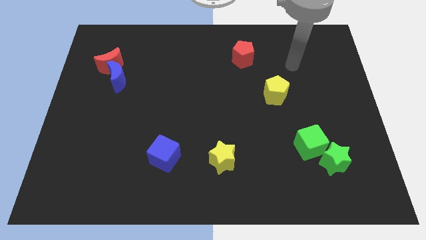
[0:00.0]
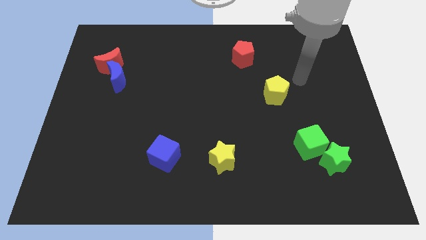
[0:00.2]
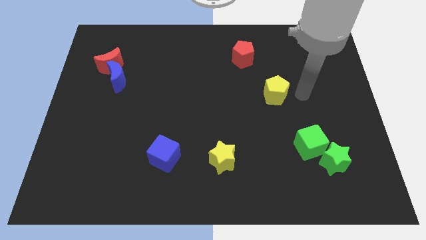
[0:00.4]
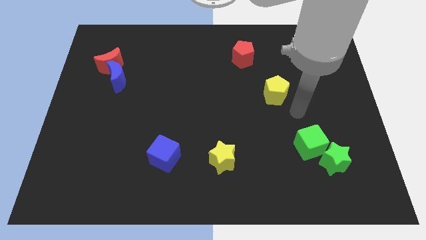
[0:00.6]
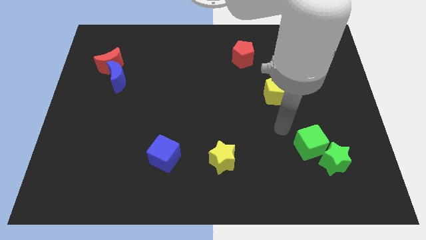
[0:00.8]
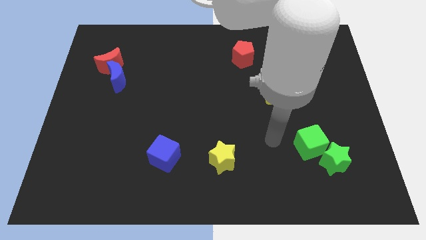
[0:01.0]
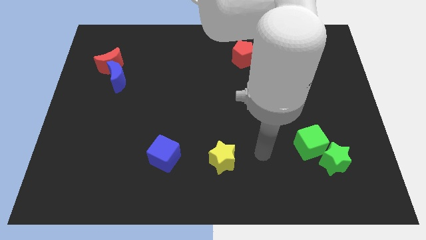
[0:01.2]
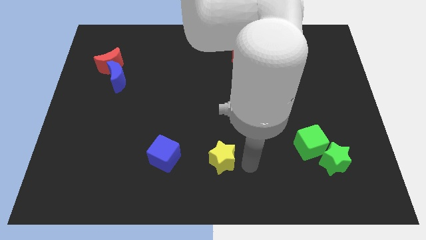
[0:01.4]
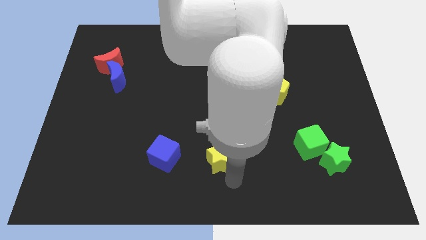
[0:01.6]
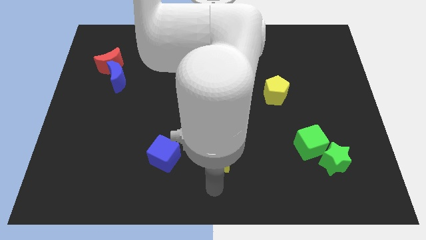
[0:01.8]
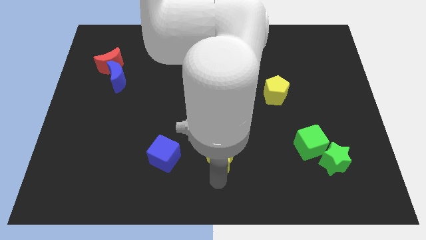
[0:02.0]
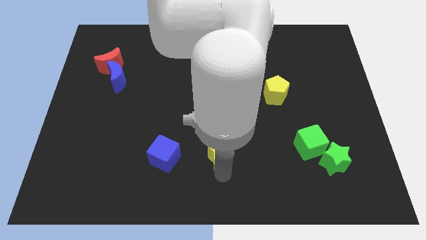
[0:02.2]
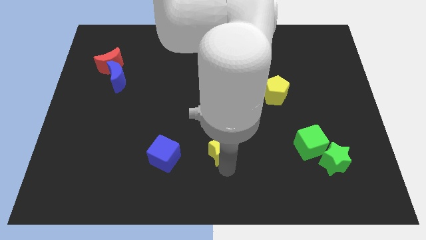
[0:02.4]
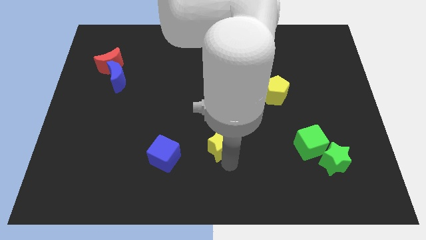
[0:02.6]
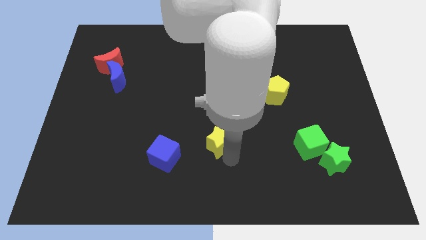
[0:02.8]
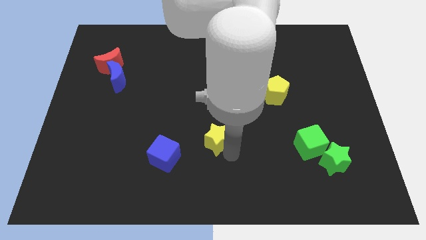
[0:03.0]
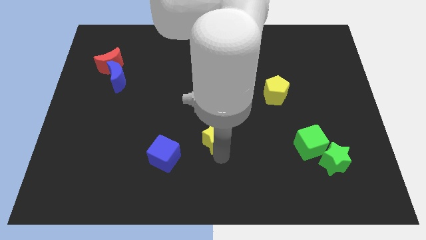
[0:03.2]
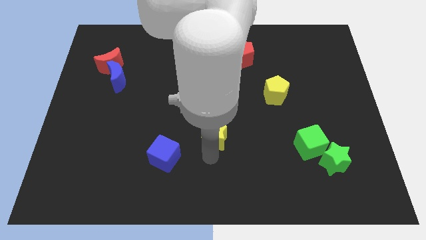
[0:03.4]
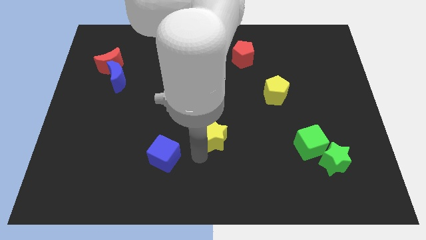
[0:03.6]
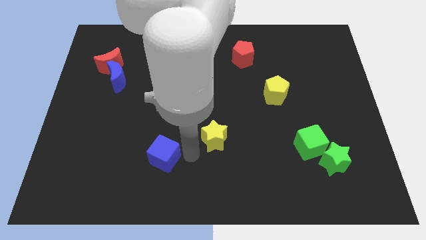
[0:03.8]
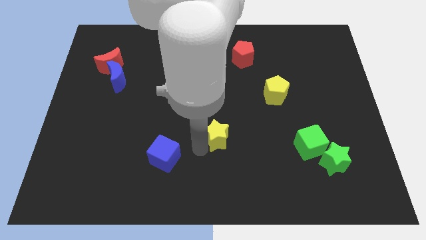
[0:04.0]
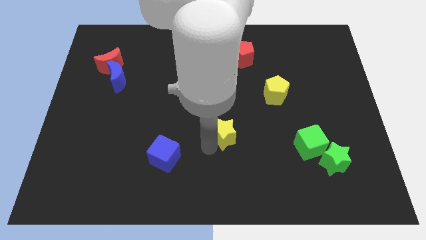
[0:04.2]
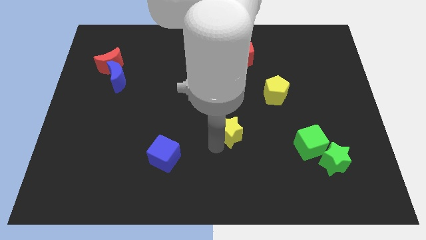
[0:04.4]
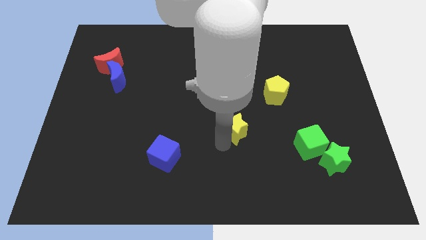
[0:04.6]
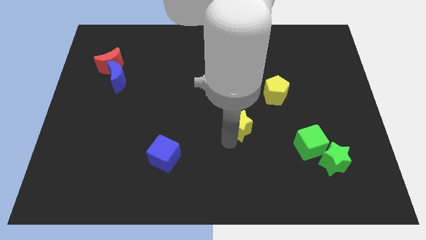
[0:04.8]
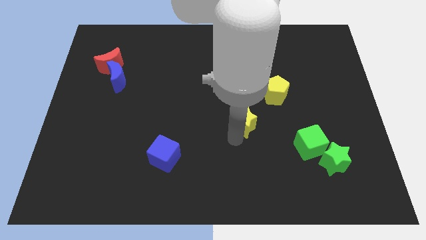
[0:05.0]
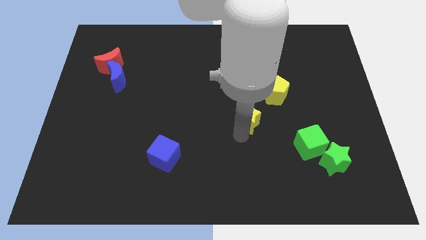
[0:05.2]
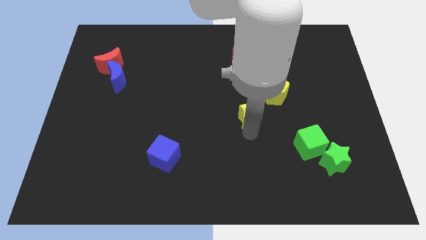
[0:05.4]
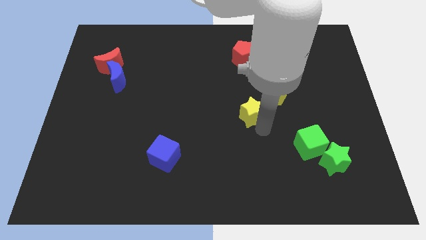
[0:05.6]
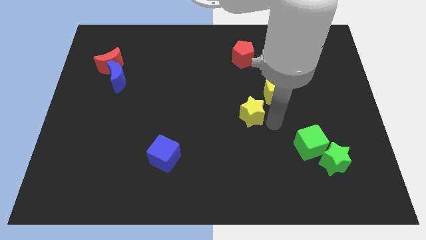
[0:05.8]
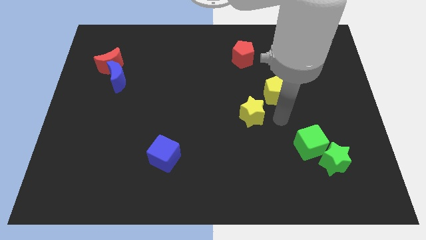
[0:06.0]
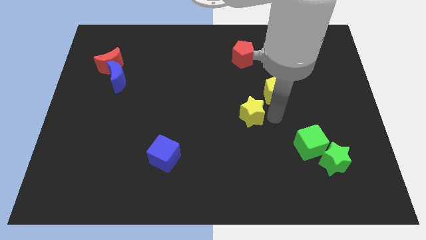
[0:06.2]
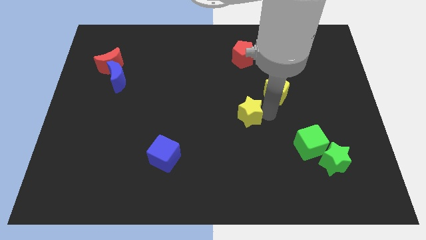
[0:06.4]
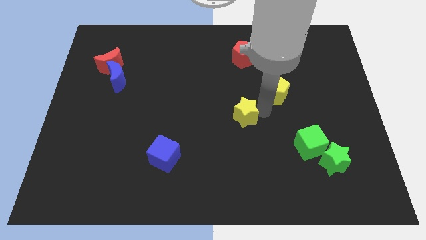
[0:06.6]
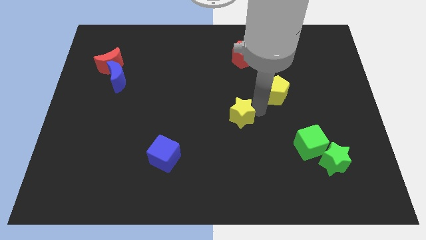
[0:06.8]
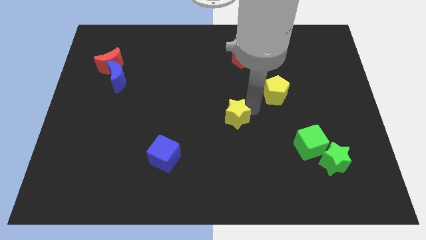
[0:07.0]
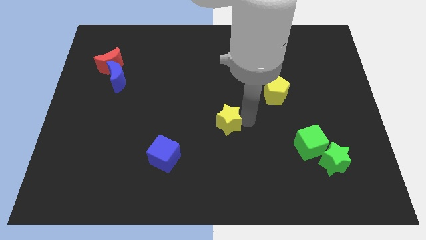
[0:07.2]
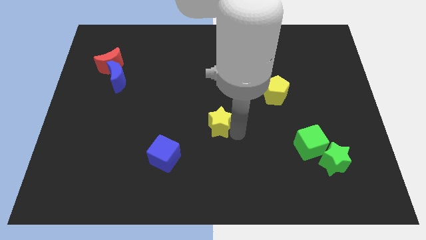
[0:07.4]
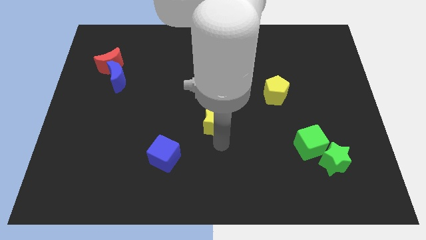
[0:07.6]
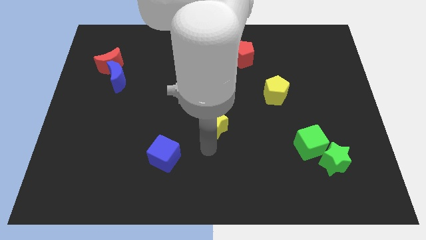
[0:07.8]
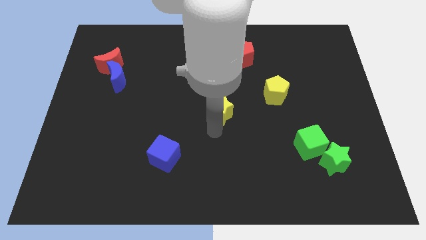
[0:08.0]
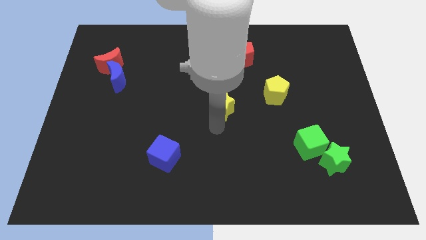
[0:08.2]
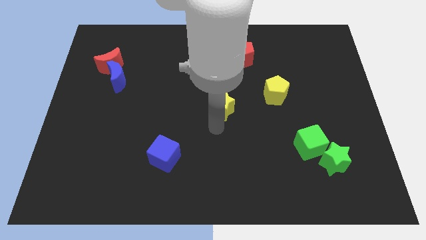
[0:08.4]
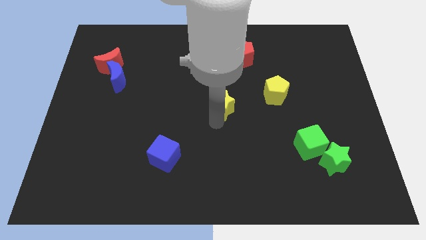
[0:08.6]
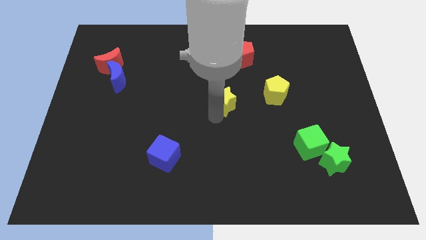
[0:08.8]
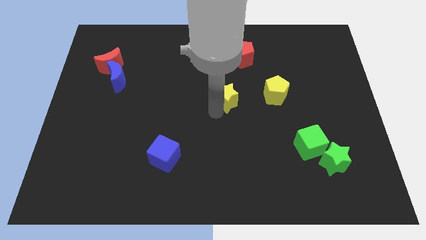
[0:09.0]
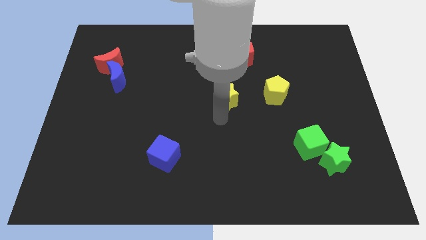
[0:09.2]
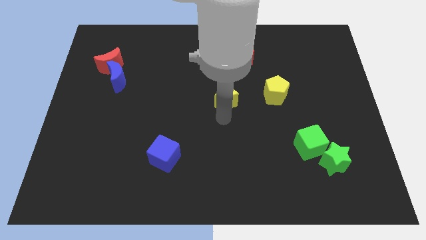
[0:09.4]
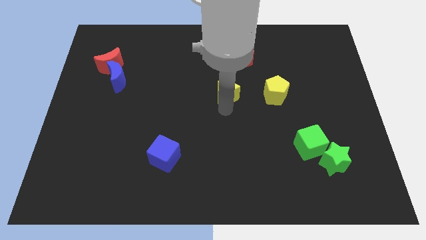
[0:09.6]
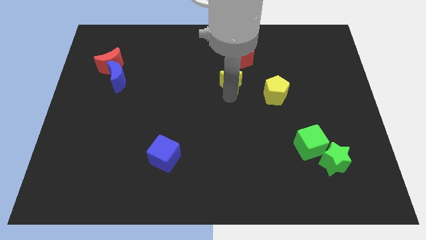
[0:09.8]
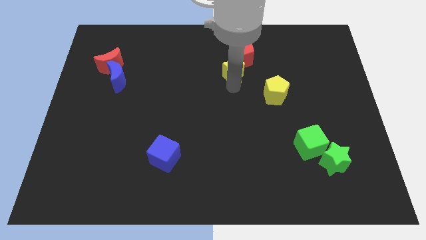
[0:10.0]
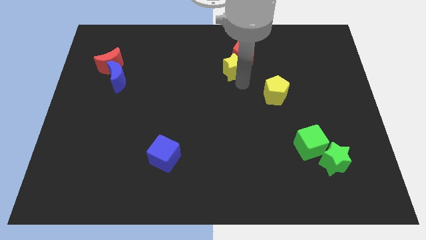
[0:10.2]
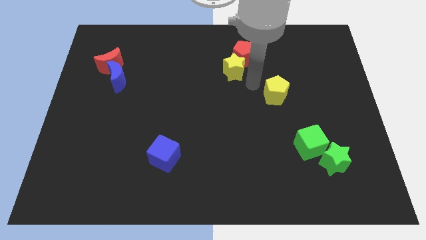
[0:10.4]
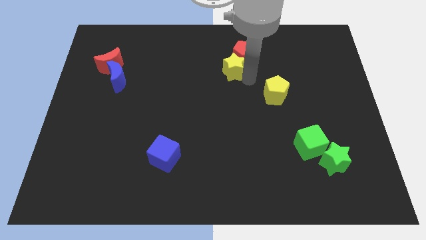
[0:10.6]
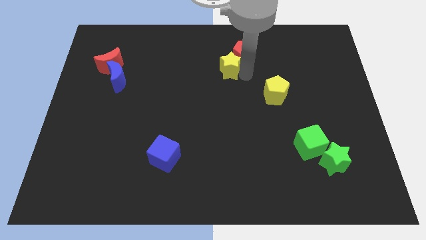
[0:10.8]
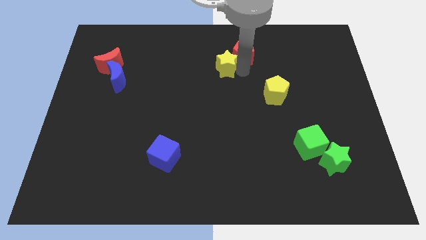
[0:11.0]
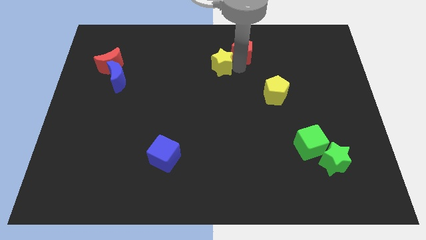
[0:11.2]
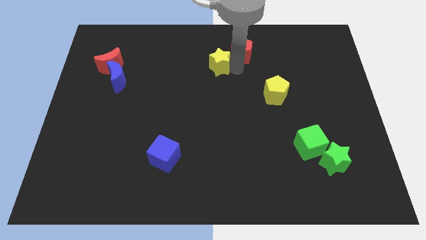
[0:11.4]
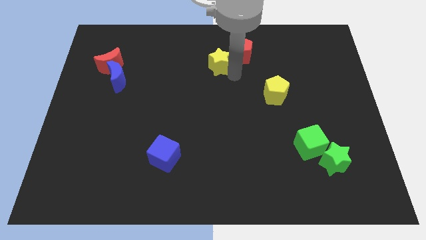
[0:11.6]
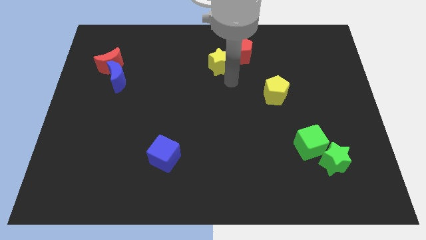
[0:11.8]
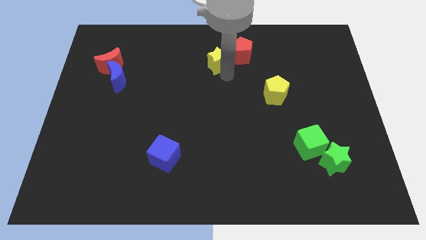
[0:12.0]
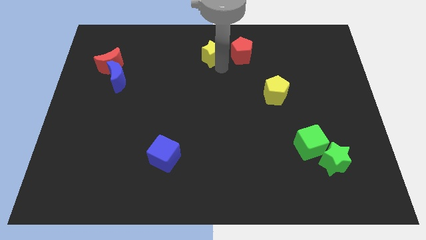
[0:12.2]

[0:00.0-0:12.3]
push the yellow star to the towards your base
